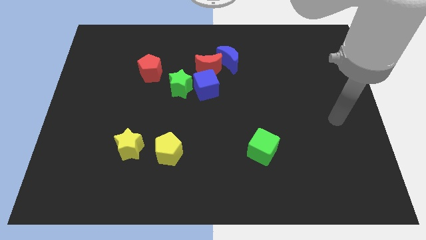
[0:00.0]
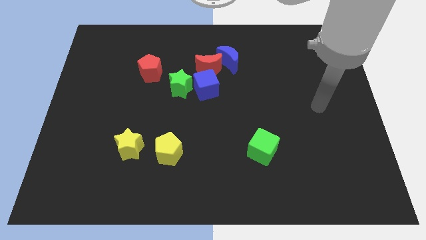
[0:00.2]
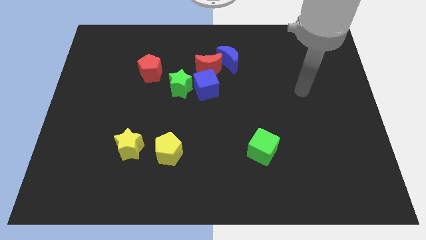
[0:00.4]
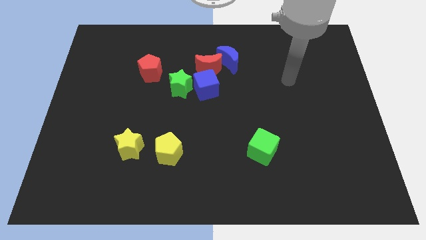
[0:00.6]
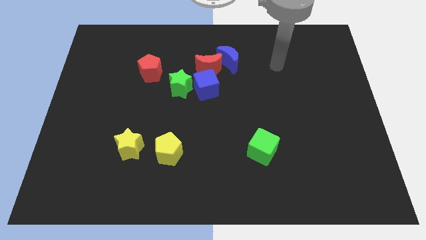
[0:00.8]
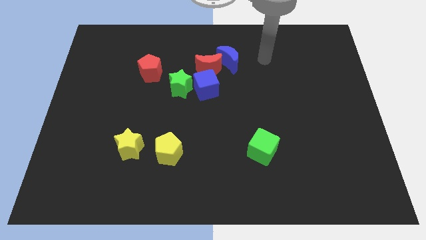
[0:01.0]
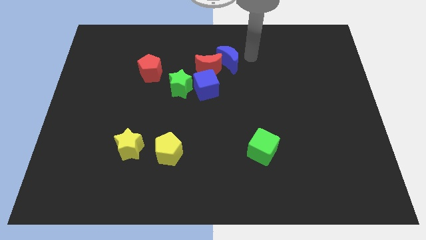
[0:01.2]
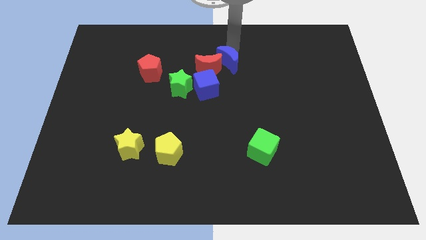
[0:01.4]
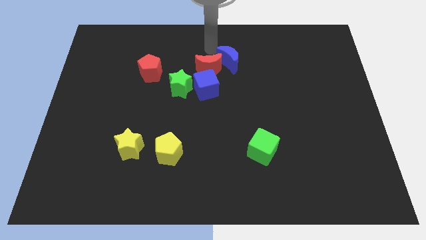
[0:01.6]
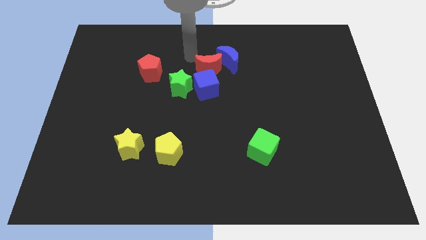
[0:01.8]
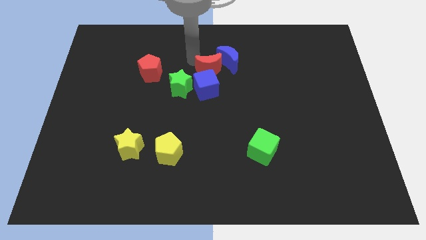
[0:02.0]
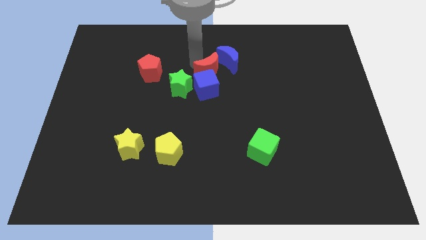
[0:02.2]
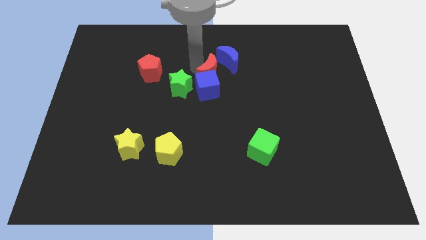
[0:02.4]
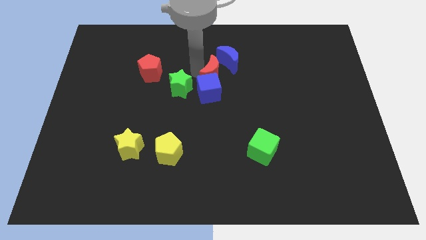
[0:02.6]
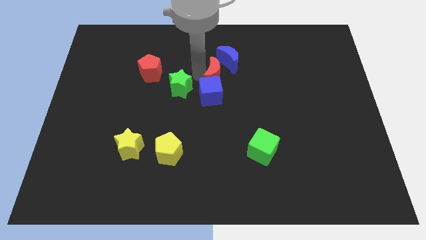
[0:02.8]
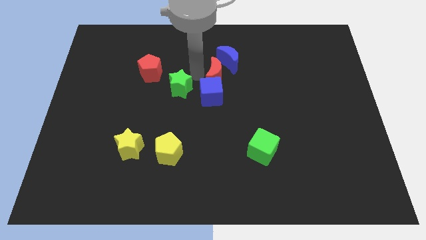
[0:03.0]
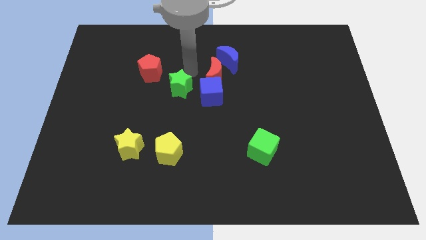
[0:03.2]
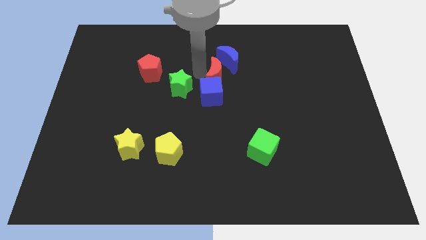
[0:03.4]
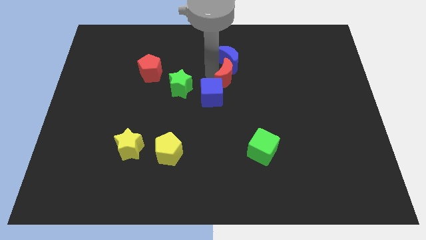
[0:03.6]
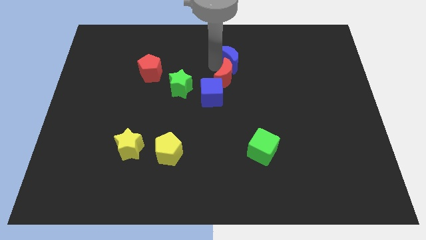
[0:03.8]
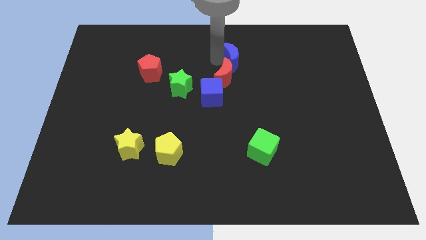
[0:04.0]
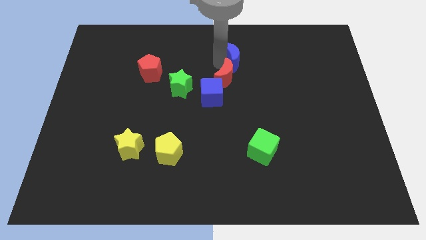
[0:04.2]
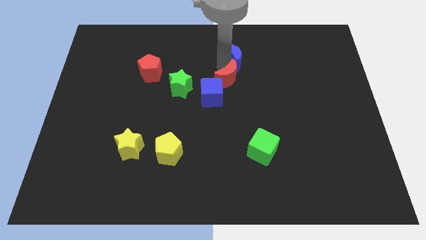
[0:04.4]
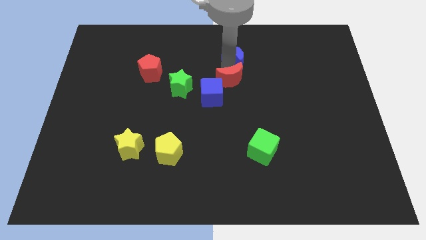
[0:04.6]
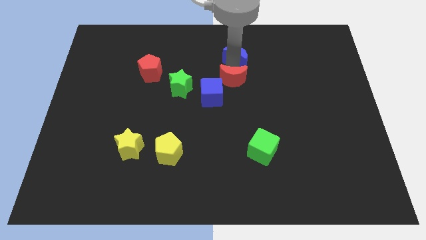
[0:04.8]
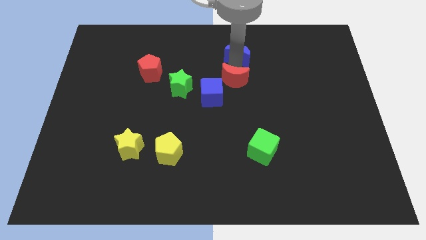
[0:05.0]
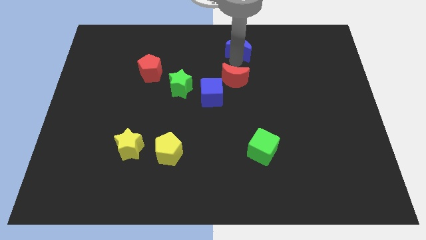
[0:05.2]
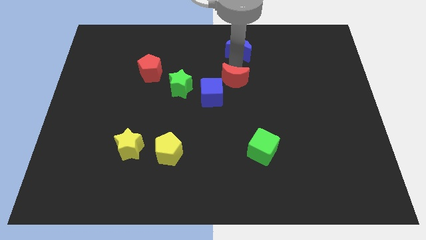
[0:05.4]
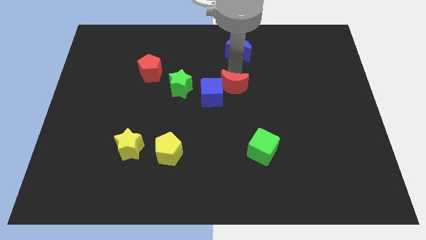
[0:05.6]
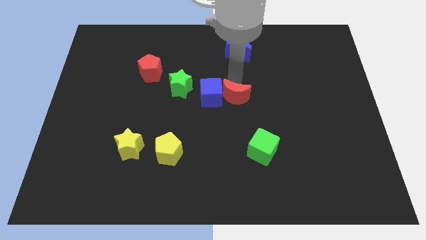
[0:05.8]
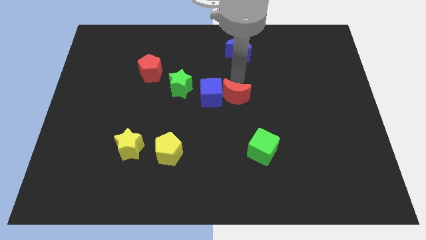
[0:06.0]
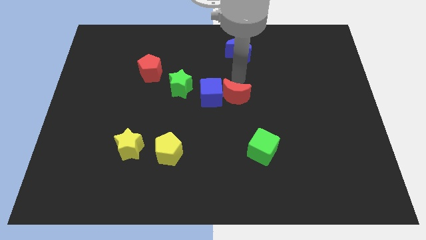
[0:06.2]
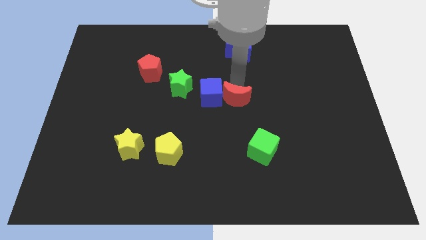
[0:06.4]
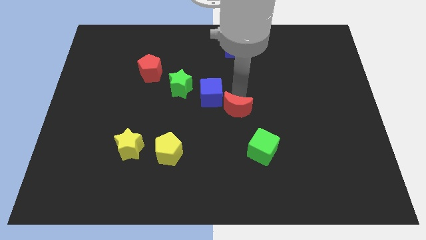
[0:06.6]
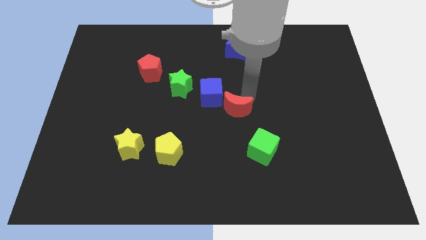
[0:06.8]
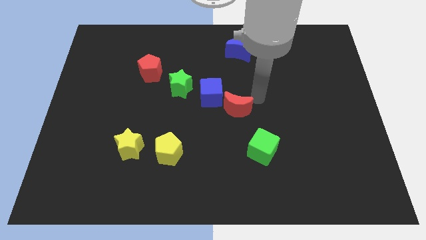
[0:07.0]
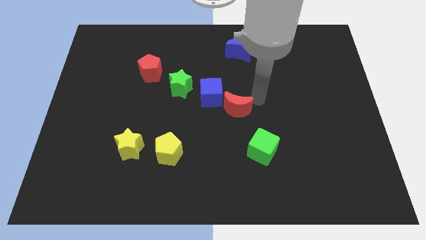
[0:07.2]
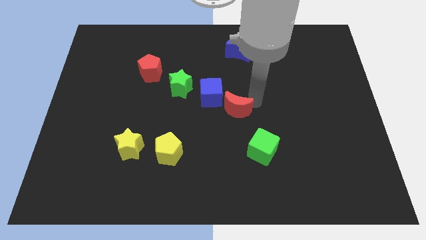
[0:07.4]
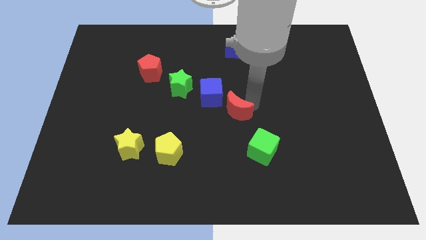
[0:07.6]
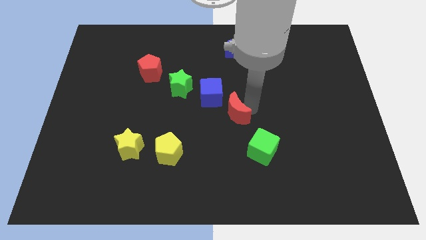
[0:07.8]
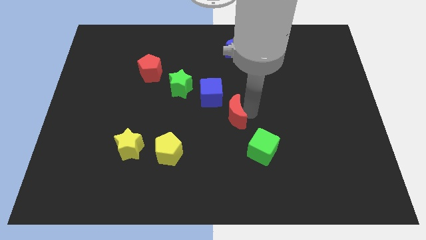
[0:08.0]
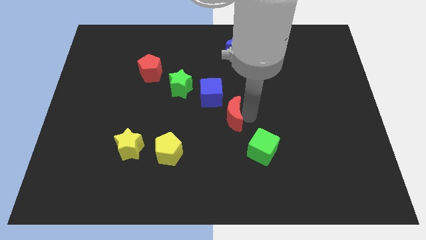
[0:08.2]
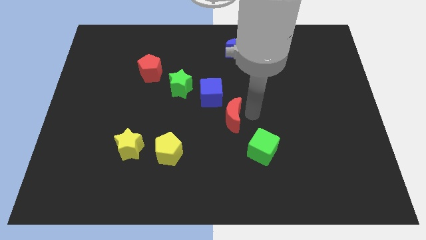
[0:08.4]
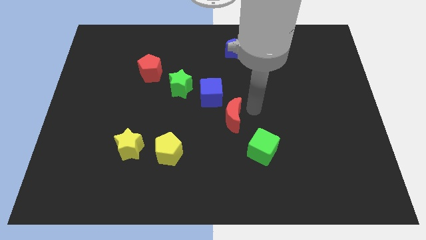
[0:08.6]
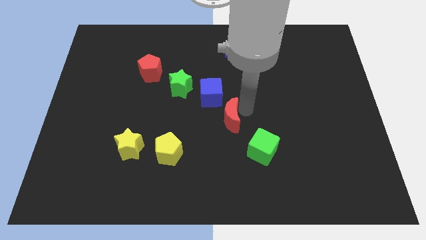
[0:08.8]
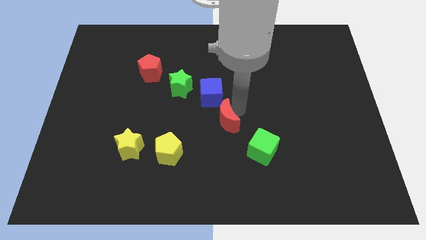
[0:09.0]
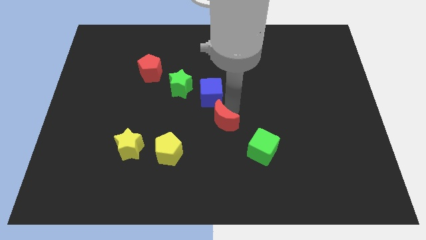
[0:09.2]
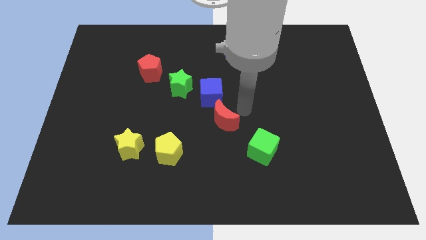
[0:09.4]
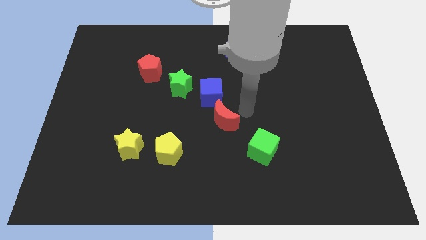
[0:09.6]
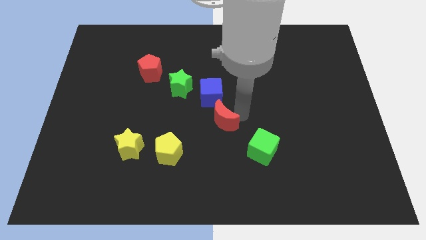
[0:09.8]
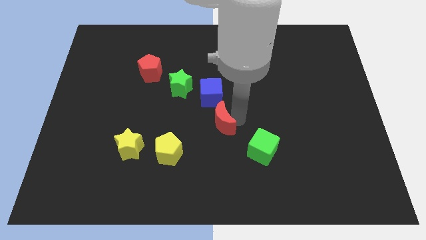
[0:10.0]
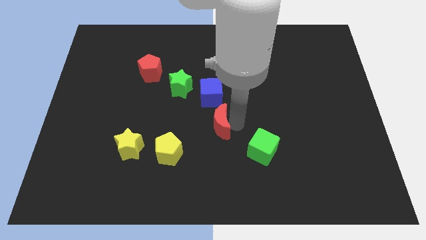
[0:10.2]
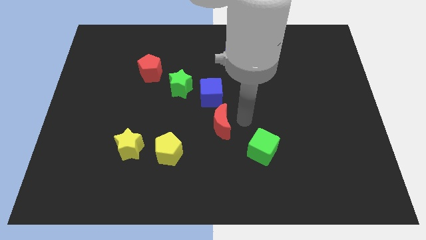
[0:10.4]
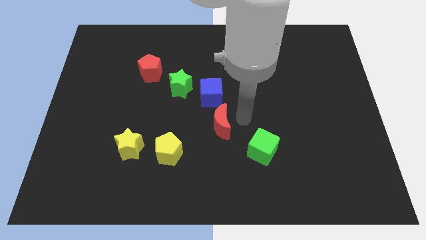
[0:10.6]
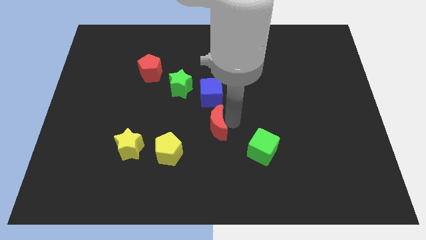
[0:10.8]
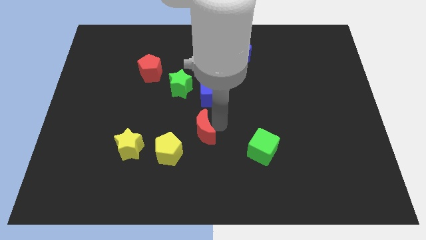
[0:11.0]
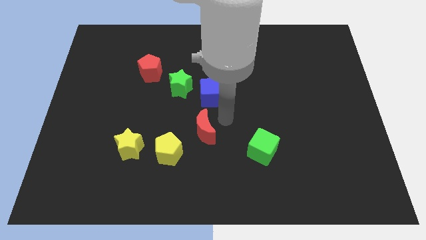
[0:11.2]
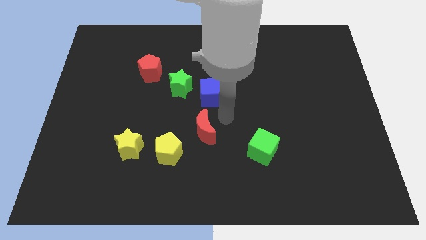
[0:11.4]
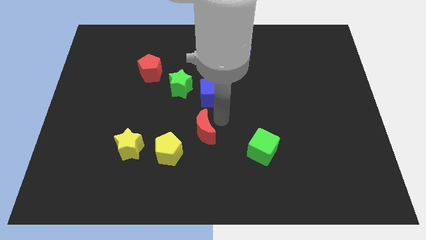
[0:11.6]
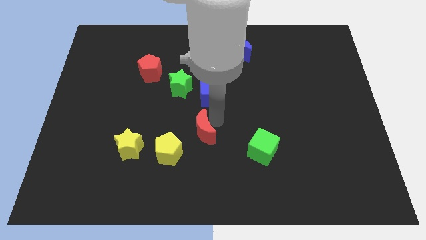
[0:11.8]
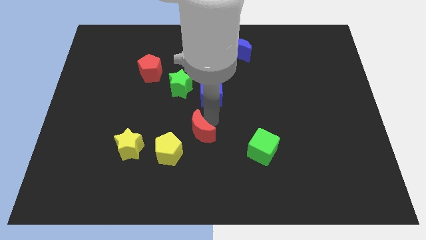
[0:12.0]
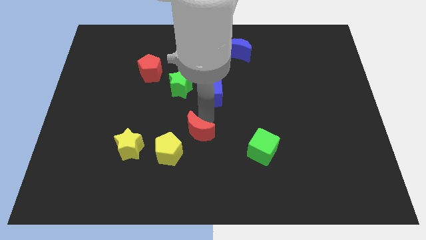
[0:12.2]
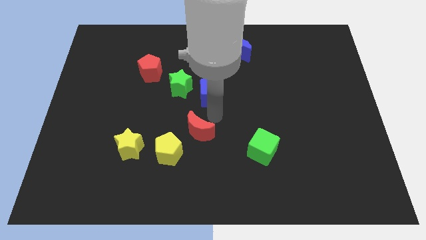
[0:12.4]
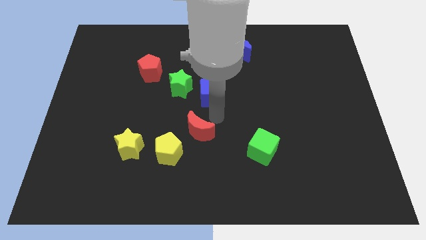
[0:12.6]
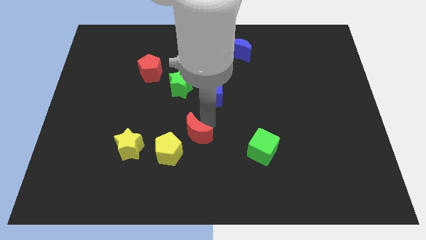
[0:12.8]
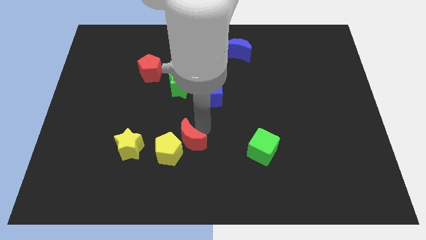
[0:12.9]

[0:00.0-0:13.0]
slide the red moon towards the yellow pentagon

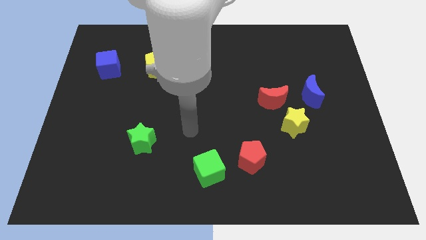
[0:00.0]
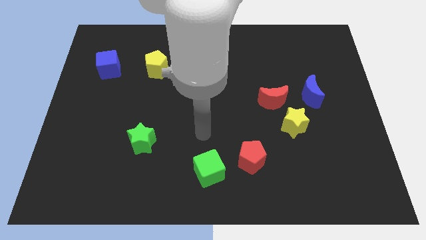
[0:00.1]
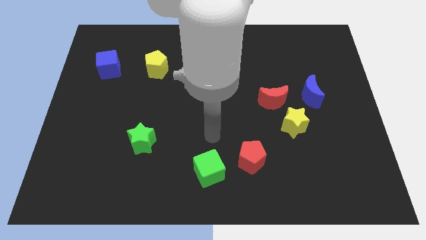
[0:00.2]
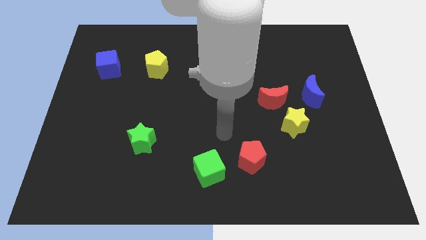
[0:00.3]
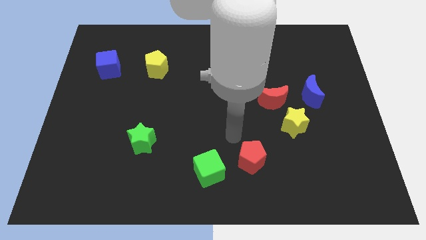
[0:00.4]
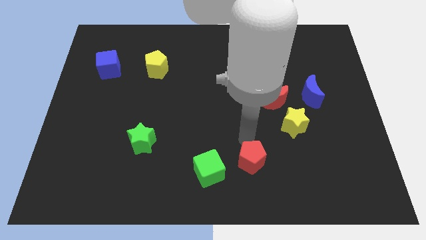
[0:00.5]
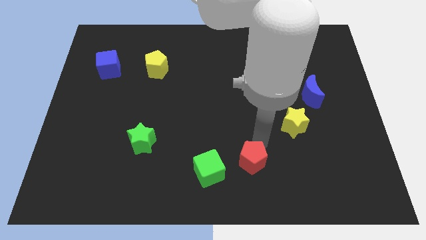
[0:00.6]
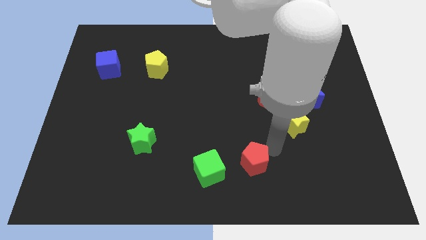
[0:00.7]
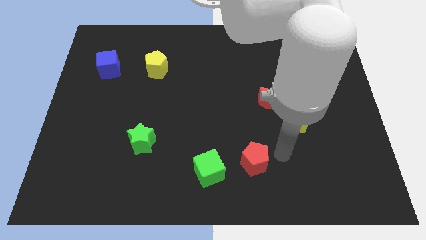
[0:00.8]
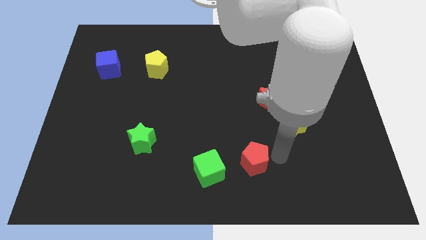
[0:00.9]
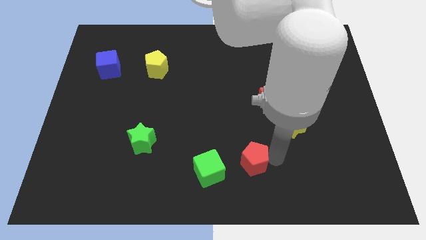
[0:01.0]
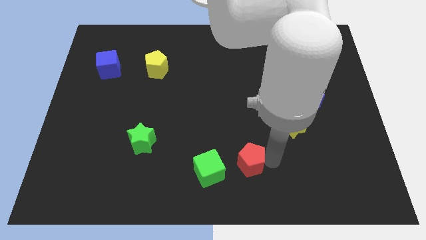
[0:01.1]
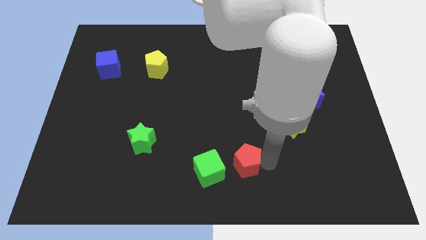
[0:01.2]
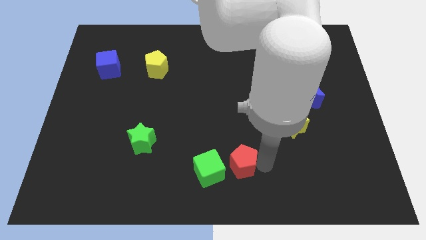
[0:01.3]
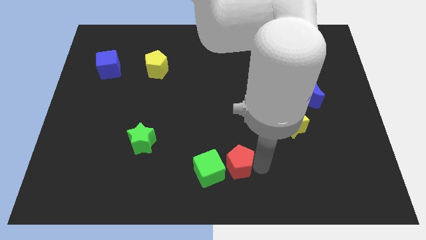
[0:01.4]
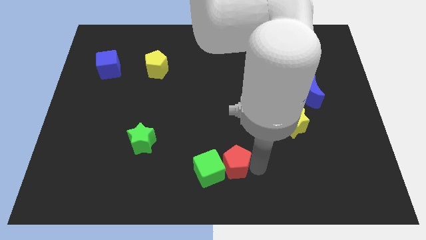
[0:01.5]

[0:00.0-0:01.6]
push the red pentagon towards the green cube
